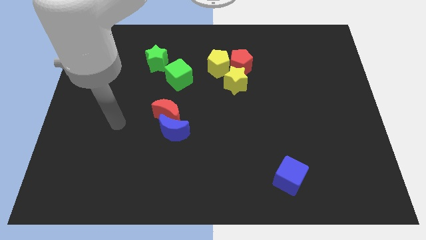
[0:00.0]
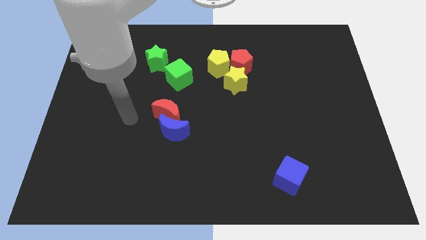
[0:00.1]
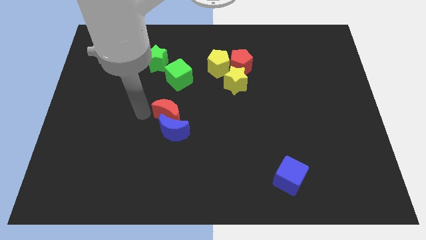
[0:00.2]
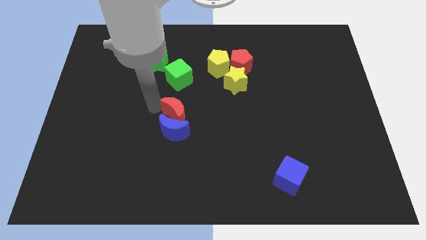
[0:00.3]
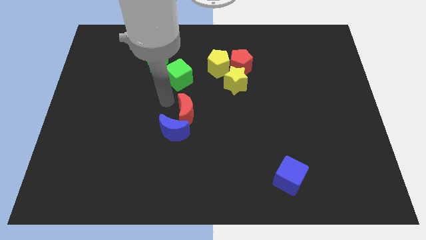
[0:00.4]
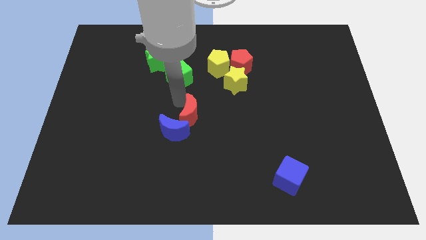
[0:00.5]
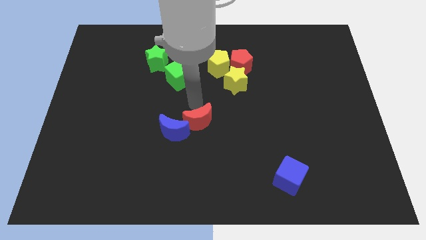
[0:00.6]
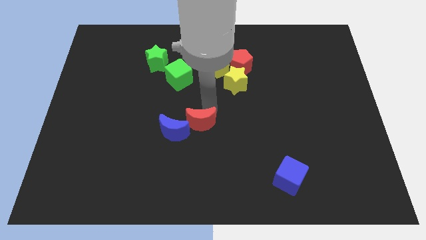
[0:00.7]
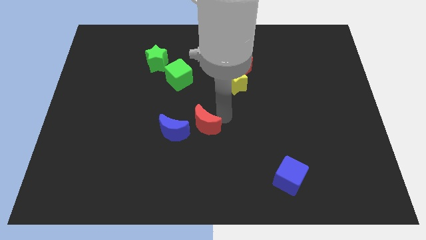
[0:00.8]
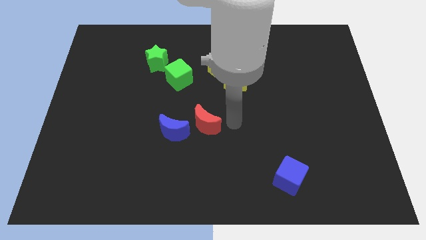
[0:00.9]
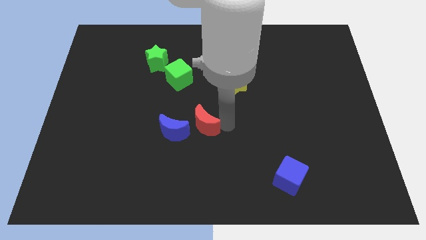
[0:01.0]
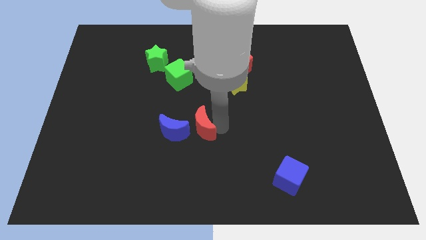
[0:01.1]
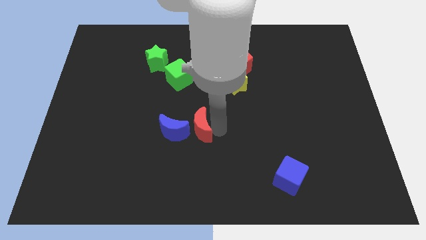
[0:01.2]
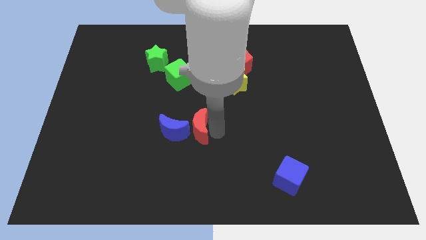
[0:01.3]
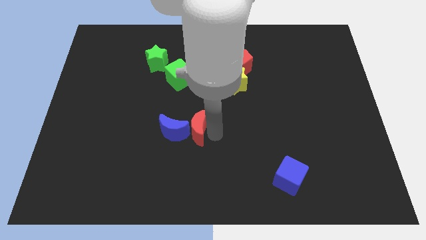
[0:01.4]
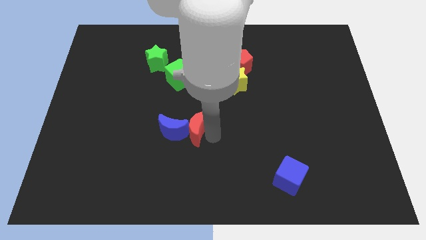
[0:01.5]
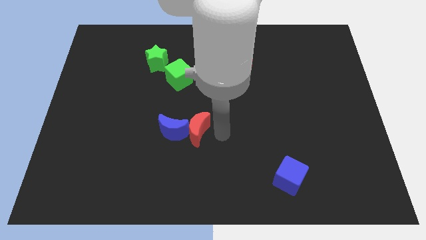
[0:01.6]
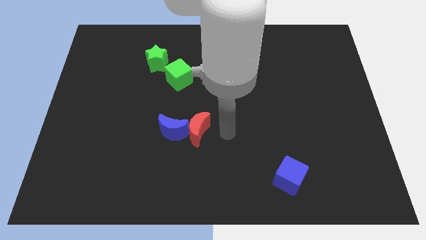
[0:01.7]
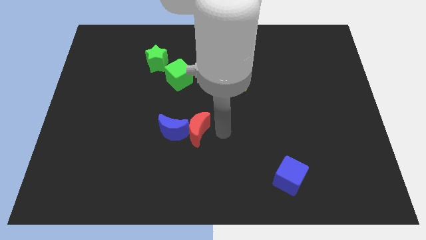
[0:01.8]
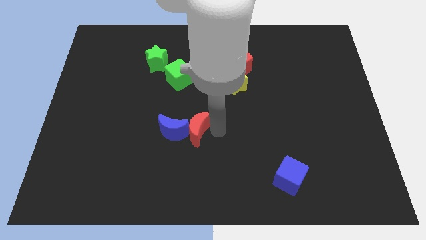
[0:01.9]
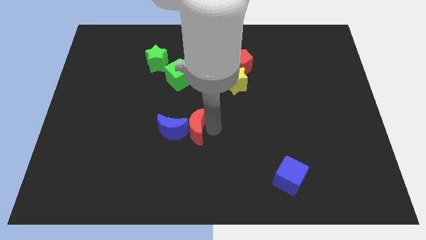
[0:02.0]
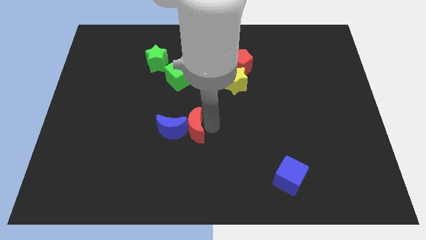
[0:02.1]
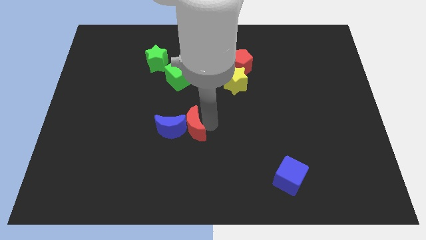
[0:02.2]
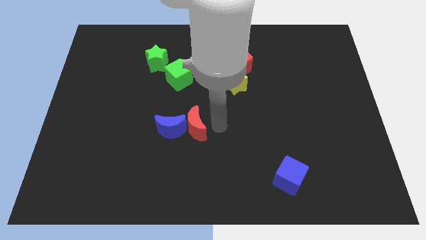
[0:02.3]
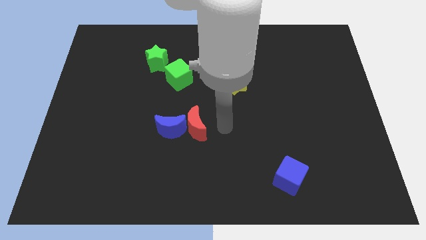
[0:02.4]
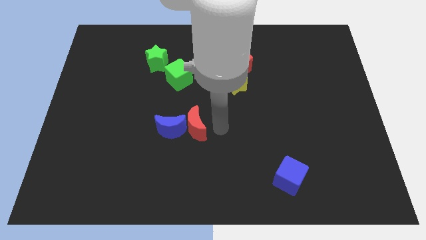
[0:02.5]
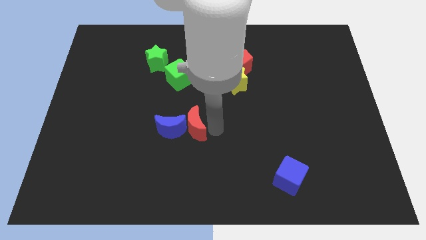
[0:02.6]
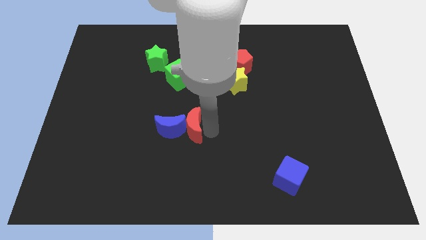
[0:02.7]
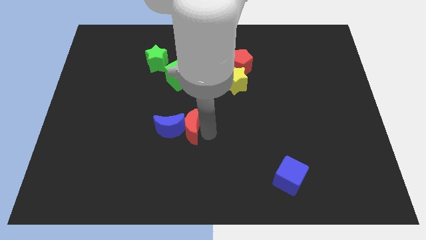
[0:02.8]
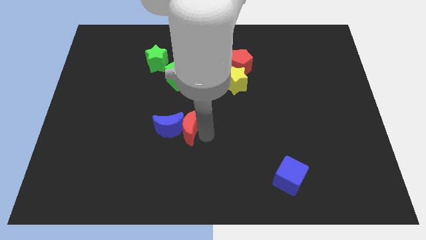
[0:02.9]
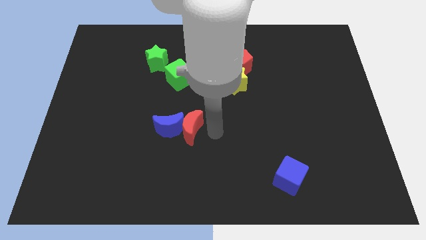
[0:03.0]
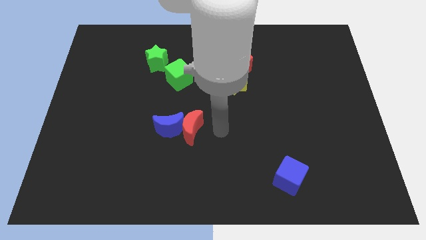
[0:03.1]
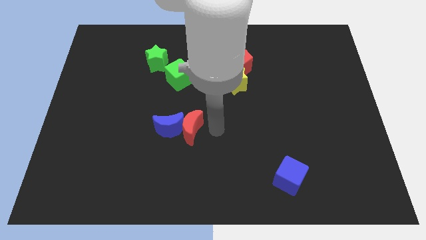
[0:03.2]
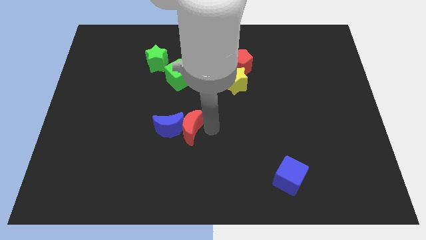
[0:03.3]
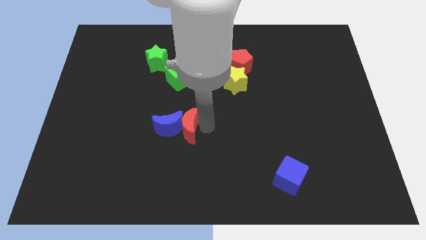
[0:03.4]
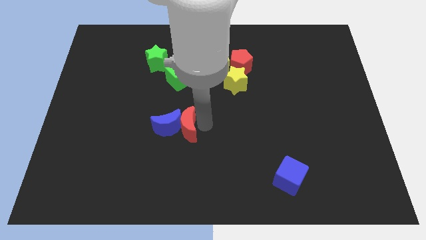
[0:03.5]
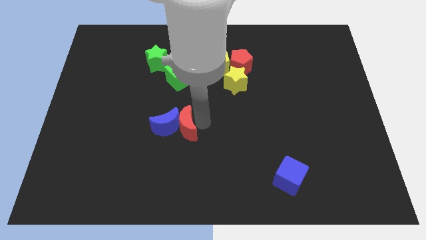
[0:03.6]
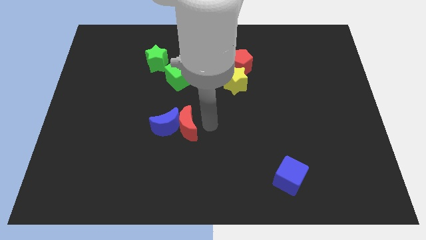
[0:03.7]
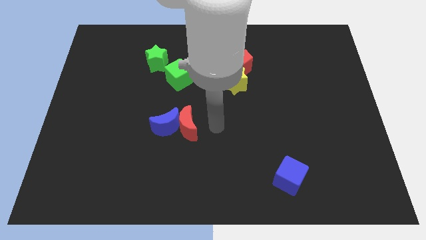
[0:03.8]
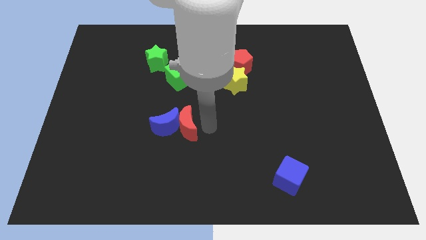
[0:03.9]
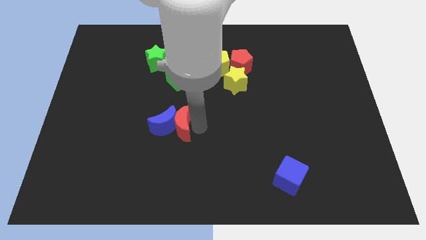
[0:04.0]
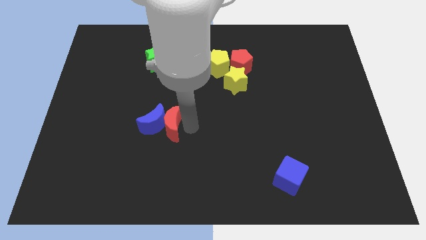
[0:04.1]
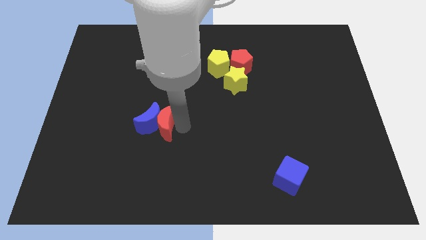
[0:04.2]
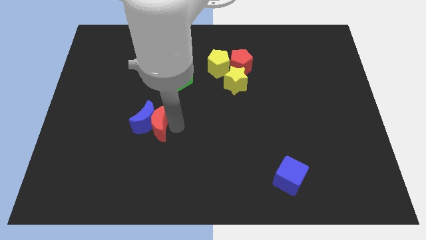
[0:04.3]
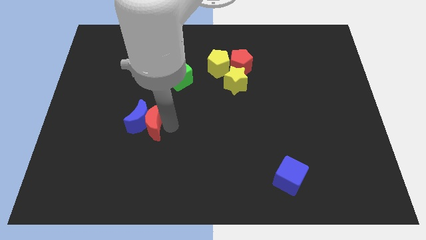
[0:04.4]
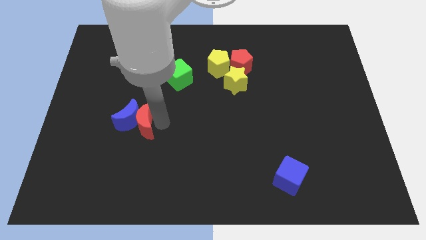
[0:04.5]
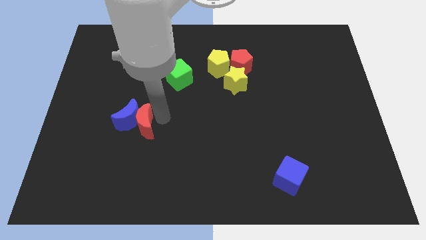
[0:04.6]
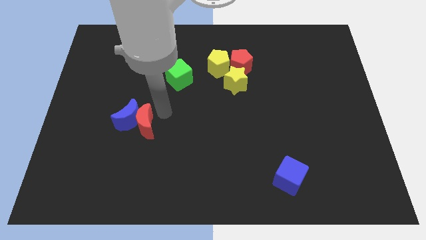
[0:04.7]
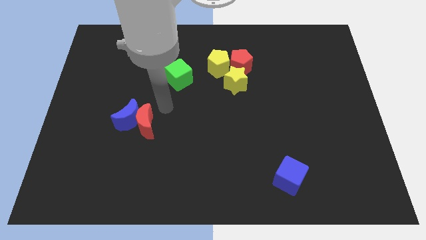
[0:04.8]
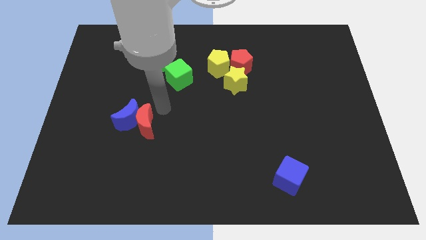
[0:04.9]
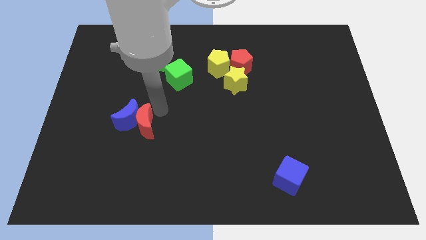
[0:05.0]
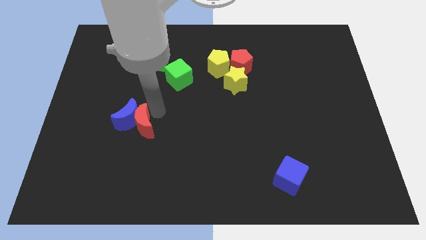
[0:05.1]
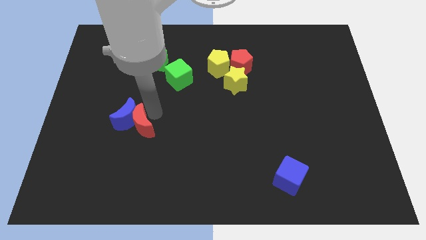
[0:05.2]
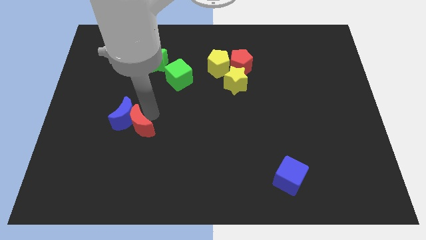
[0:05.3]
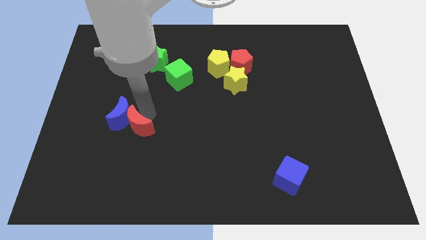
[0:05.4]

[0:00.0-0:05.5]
slide the red moon somewhat downwards and left diagonally

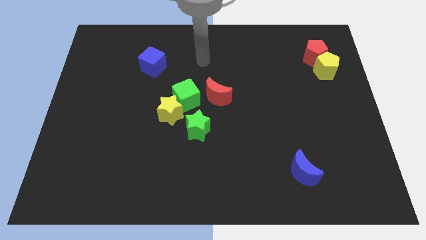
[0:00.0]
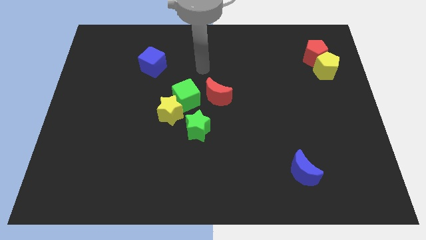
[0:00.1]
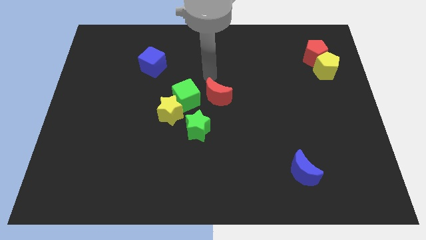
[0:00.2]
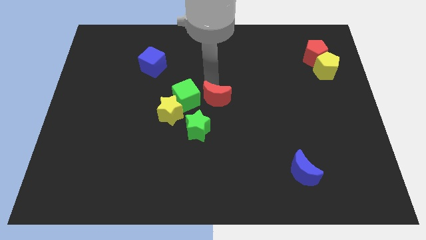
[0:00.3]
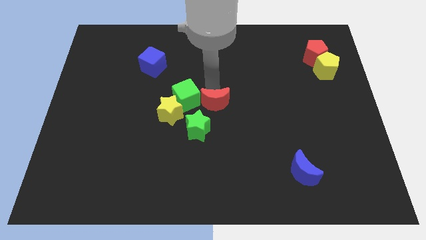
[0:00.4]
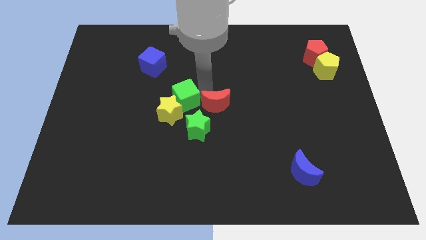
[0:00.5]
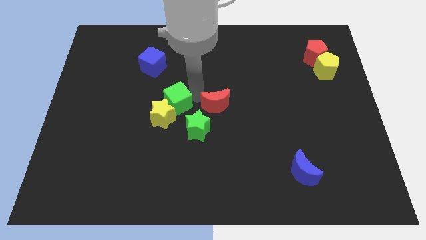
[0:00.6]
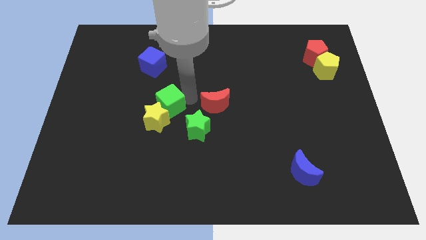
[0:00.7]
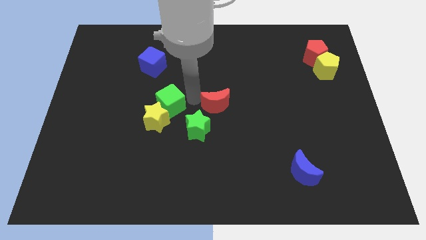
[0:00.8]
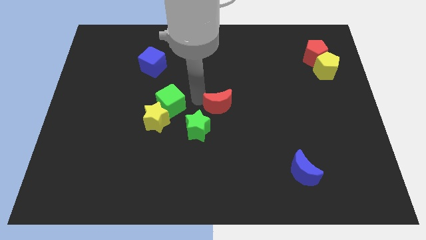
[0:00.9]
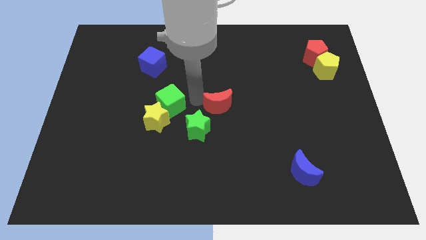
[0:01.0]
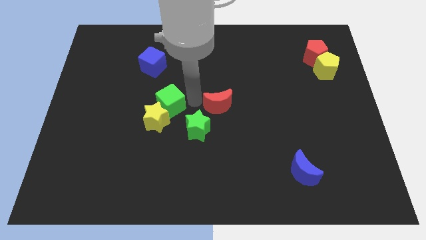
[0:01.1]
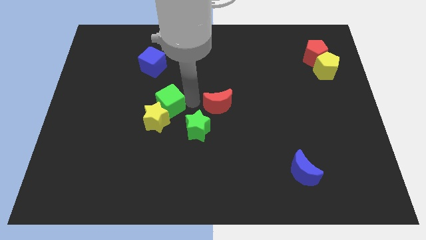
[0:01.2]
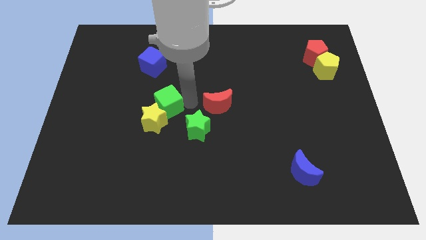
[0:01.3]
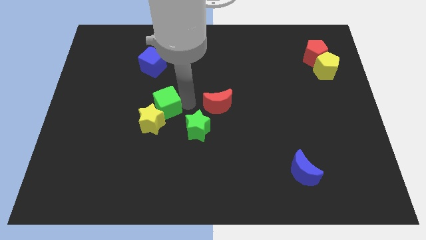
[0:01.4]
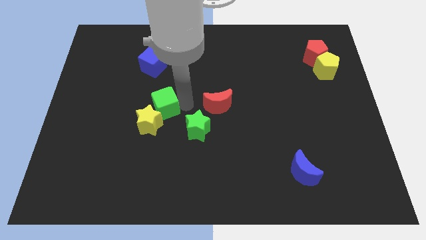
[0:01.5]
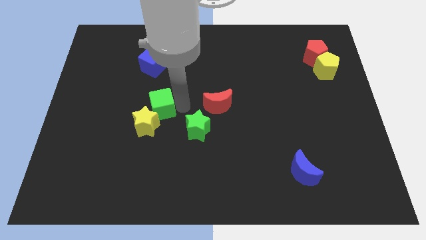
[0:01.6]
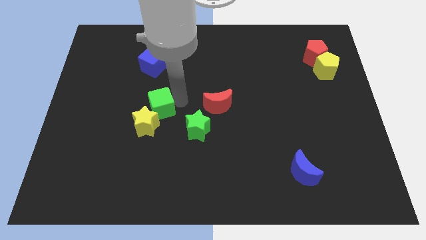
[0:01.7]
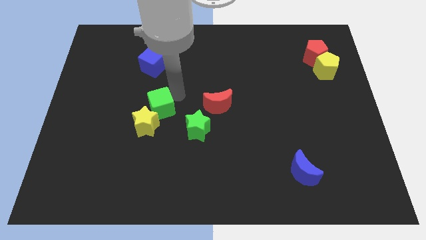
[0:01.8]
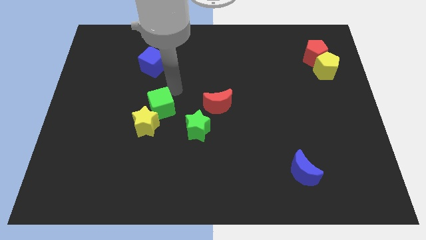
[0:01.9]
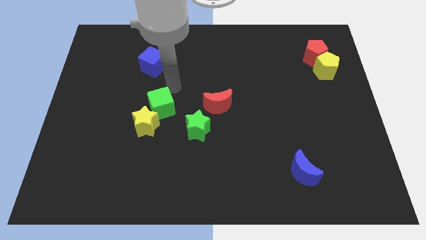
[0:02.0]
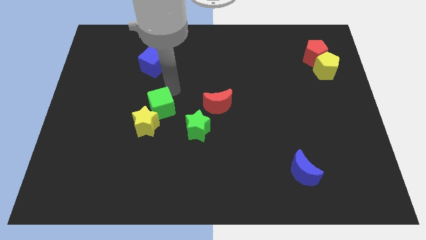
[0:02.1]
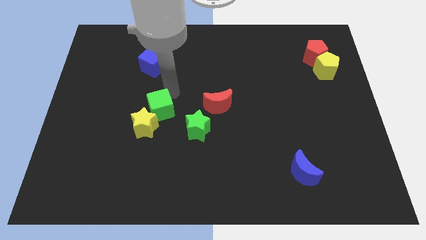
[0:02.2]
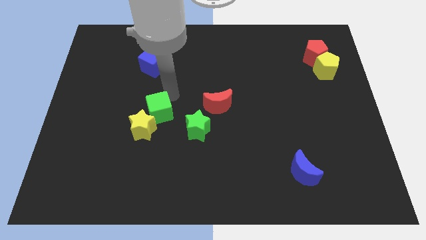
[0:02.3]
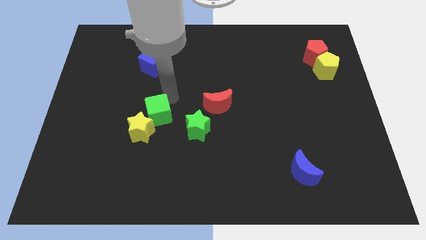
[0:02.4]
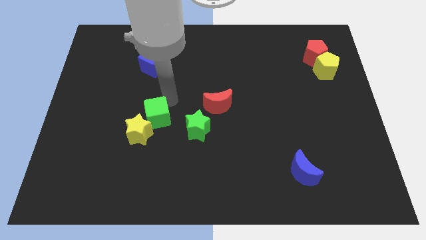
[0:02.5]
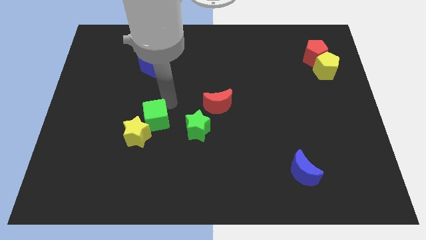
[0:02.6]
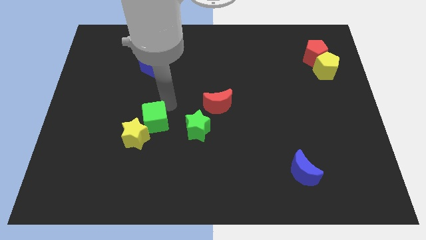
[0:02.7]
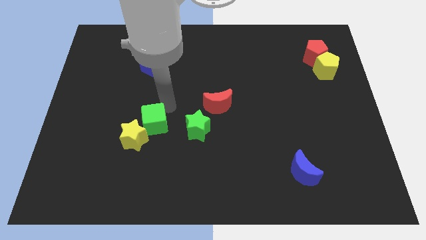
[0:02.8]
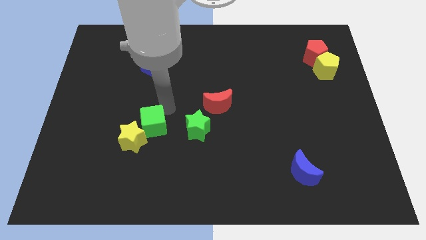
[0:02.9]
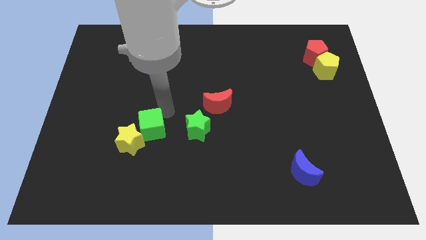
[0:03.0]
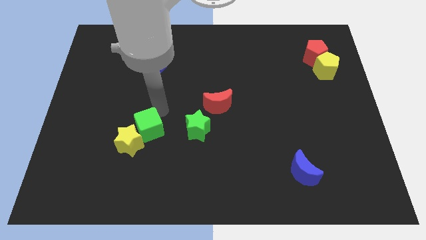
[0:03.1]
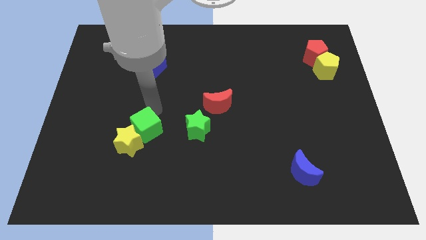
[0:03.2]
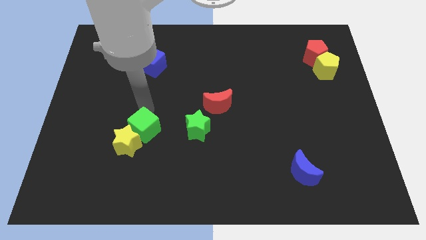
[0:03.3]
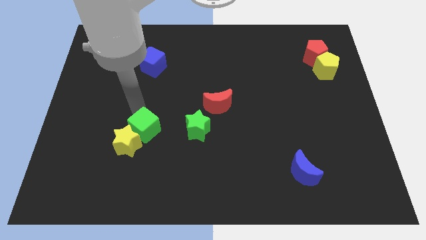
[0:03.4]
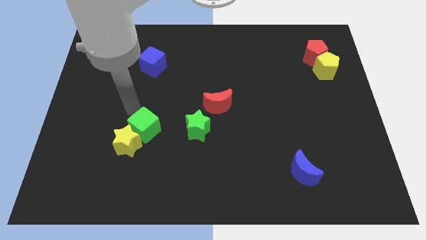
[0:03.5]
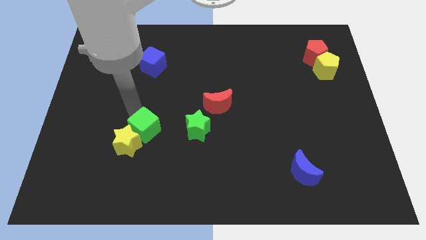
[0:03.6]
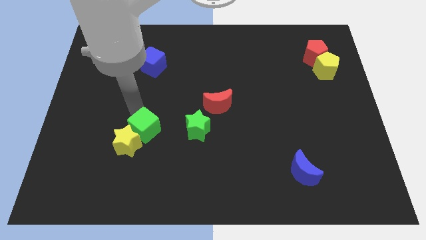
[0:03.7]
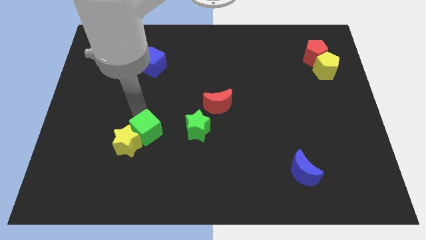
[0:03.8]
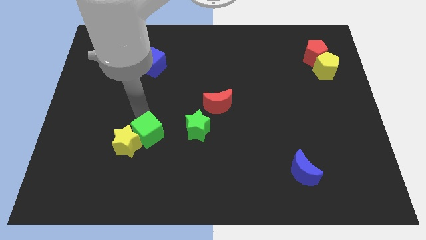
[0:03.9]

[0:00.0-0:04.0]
slightly push the green cube down
